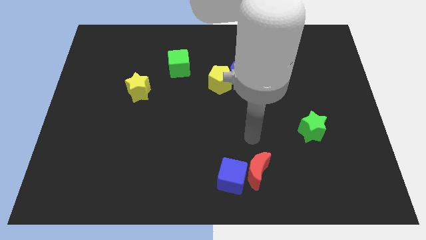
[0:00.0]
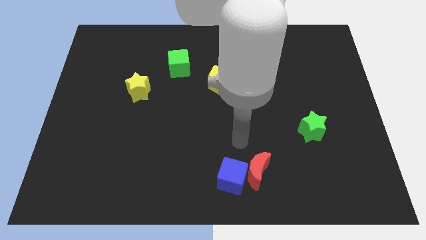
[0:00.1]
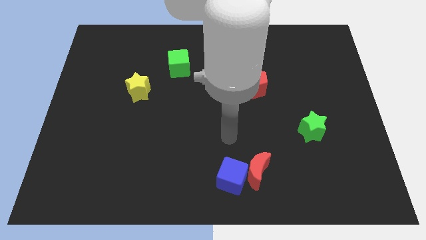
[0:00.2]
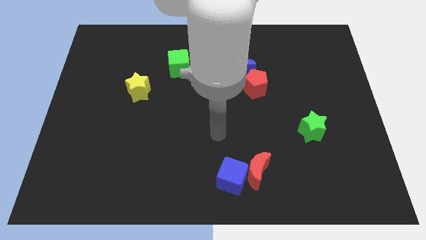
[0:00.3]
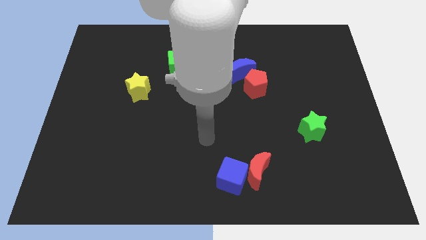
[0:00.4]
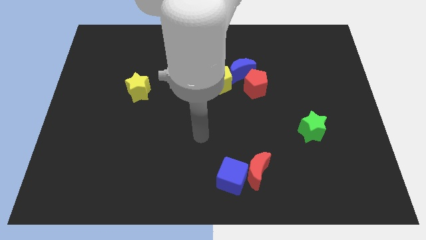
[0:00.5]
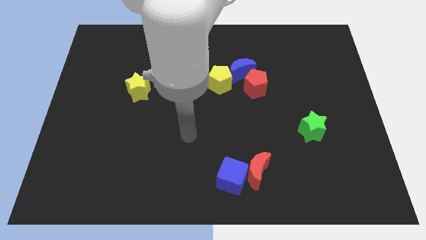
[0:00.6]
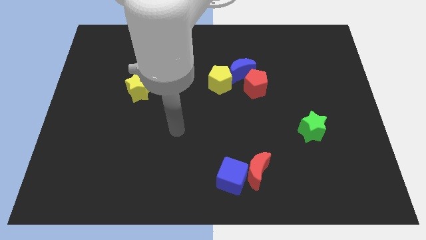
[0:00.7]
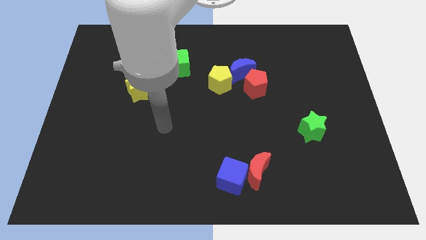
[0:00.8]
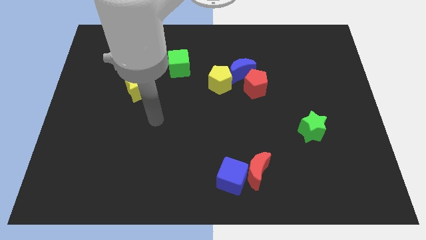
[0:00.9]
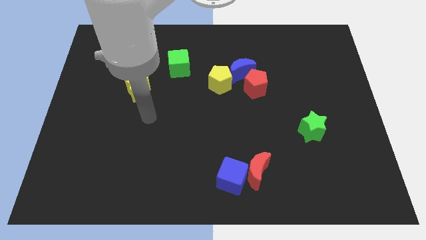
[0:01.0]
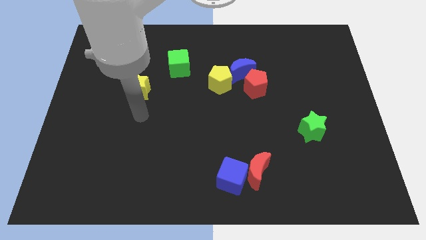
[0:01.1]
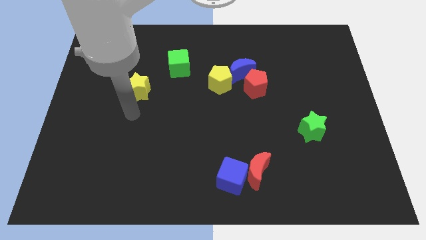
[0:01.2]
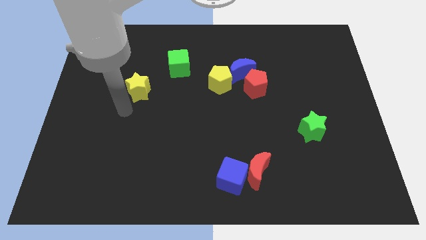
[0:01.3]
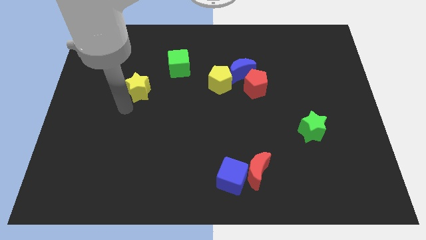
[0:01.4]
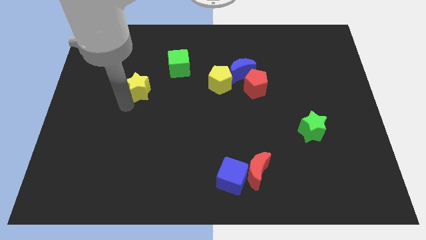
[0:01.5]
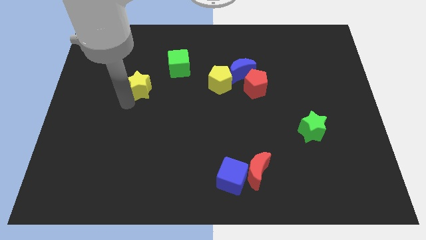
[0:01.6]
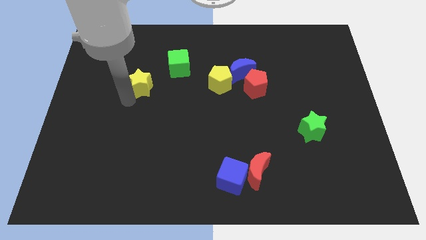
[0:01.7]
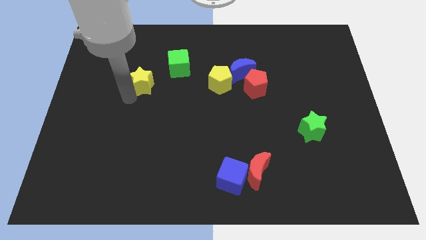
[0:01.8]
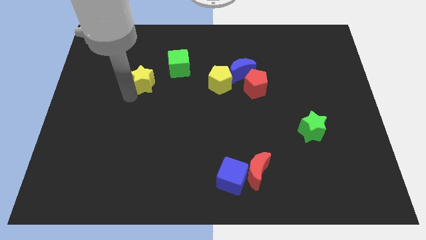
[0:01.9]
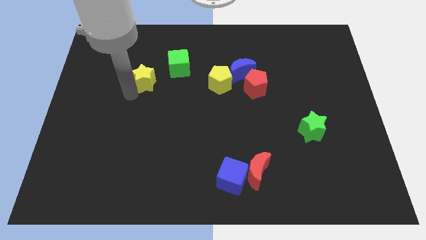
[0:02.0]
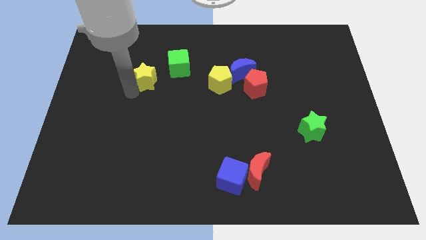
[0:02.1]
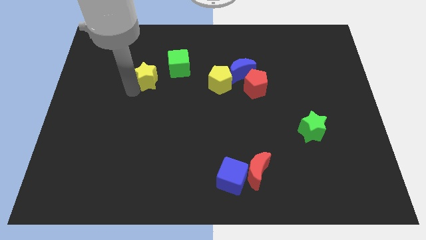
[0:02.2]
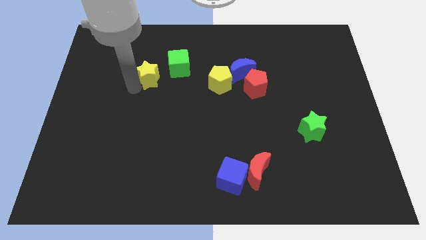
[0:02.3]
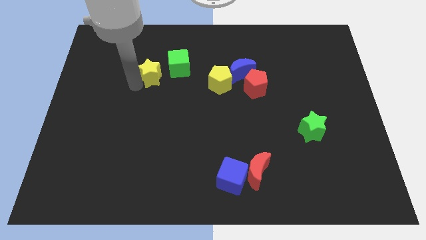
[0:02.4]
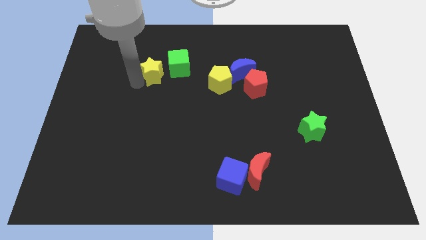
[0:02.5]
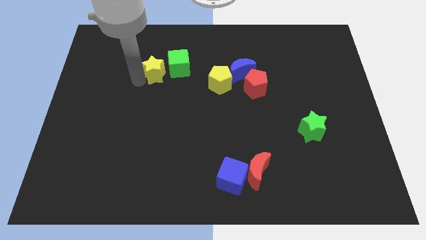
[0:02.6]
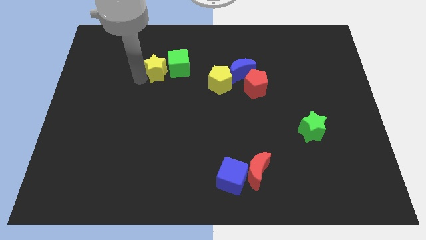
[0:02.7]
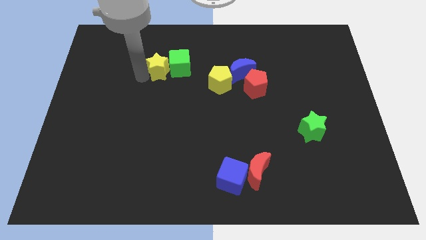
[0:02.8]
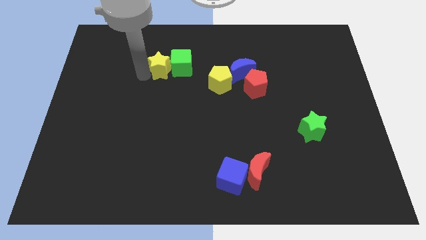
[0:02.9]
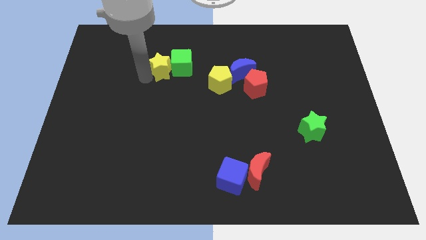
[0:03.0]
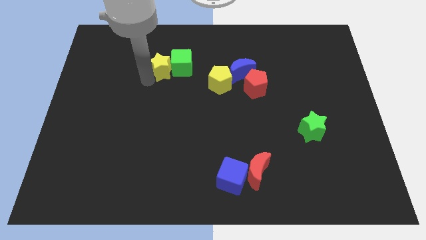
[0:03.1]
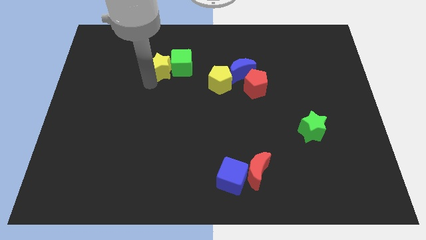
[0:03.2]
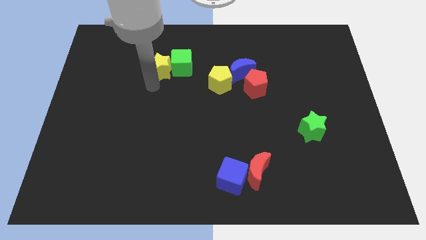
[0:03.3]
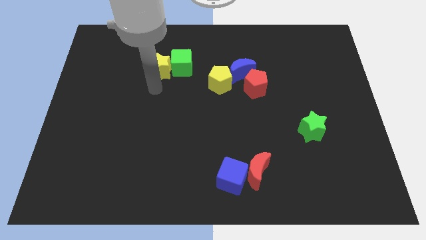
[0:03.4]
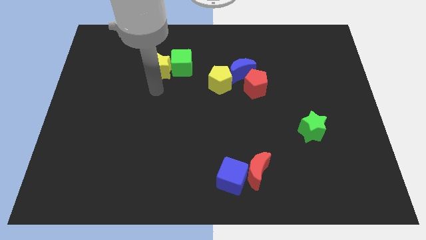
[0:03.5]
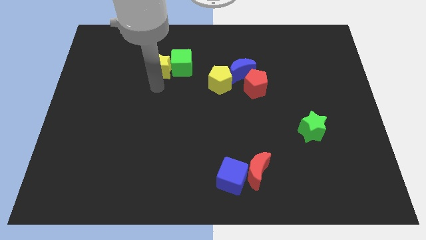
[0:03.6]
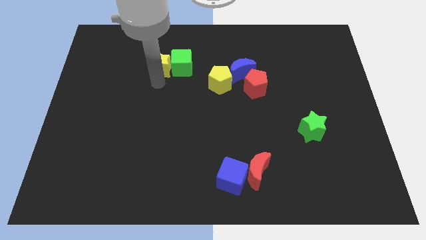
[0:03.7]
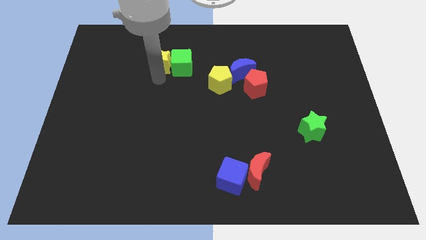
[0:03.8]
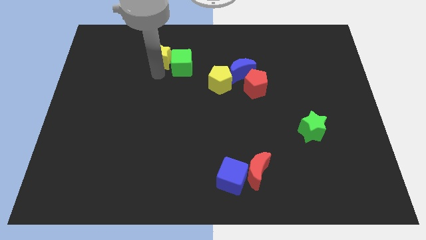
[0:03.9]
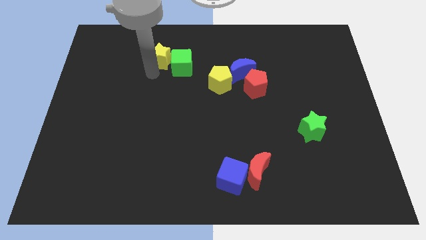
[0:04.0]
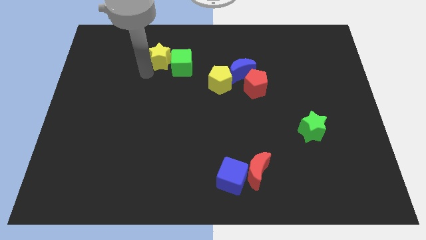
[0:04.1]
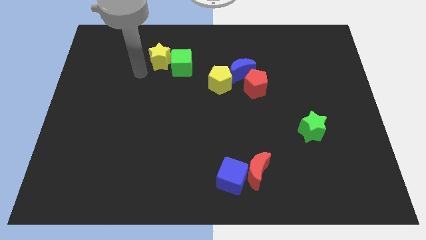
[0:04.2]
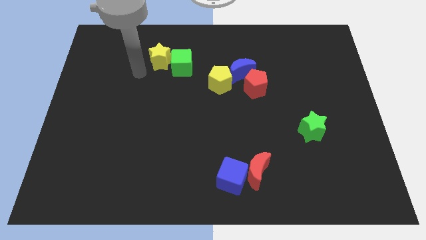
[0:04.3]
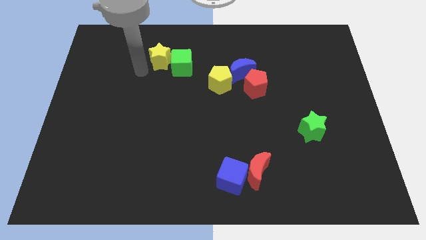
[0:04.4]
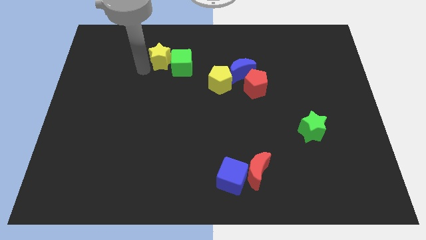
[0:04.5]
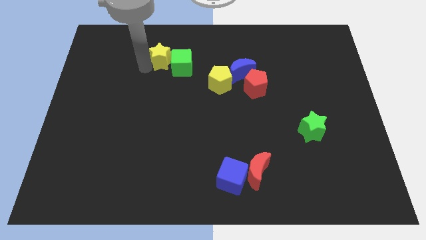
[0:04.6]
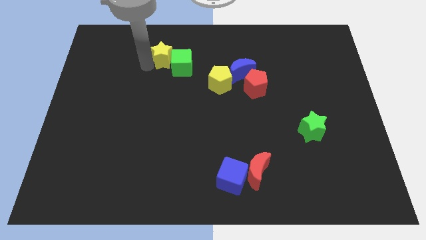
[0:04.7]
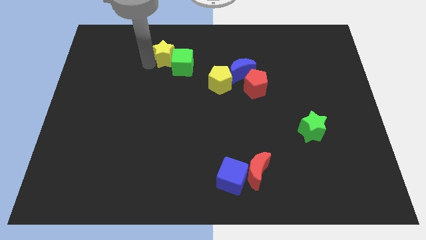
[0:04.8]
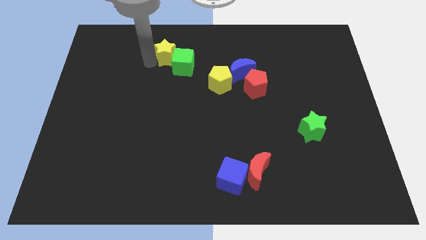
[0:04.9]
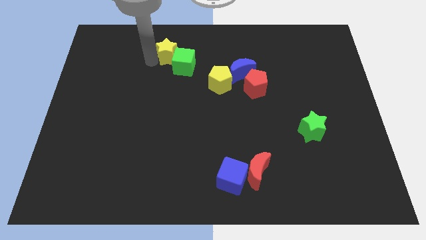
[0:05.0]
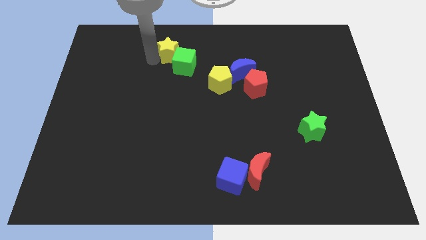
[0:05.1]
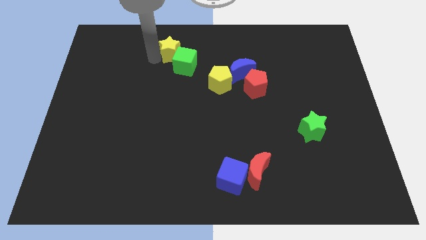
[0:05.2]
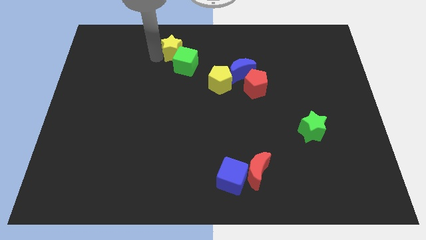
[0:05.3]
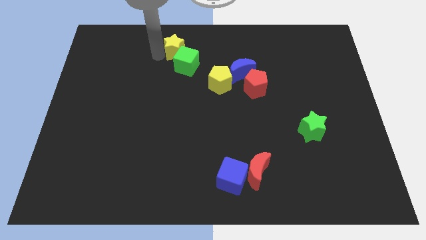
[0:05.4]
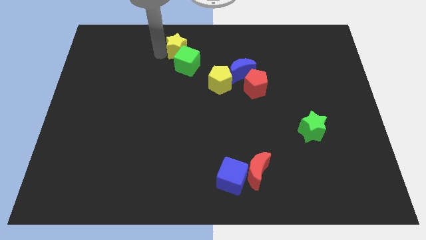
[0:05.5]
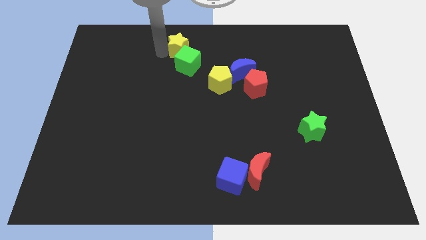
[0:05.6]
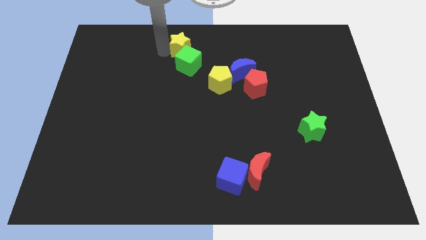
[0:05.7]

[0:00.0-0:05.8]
put the yellow star to the top side

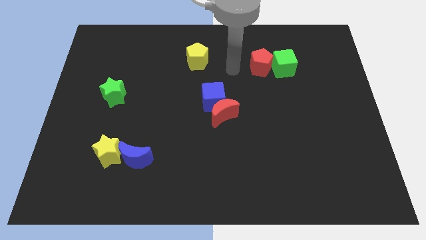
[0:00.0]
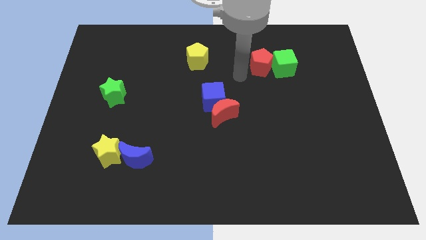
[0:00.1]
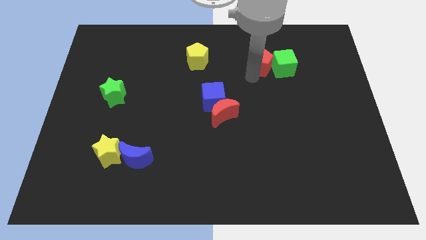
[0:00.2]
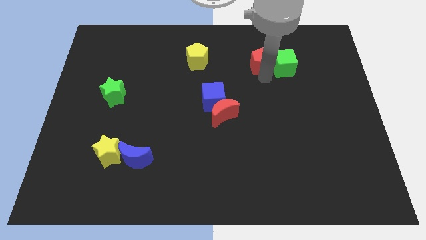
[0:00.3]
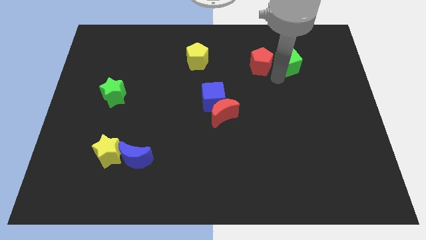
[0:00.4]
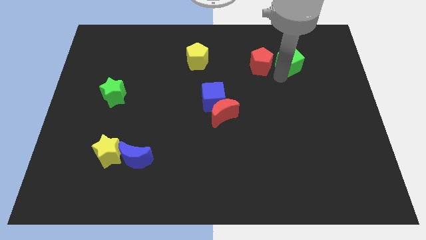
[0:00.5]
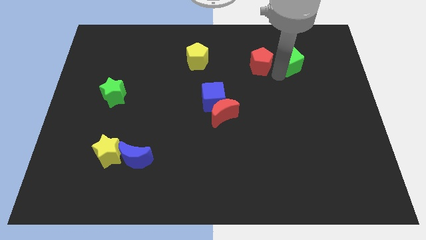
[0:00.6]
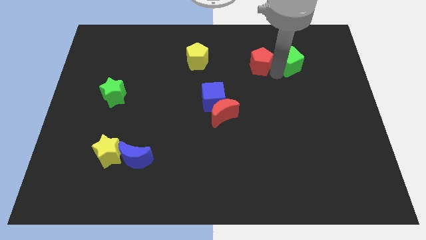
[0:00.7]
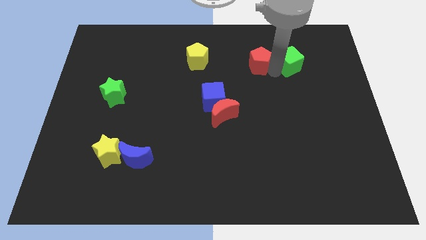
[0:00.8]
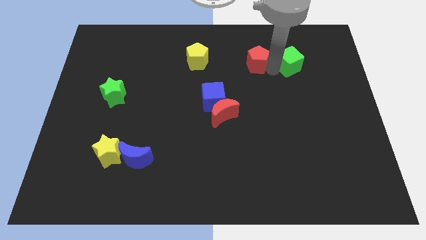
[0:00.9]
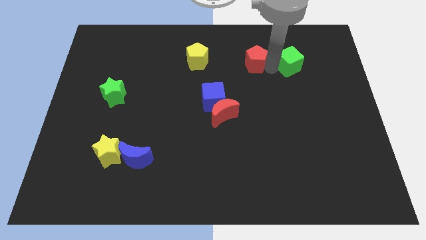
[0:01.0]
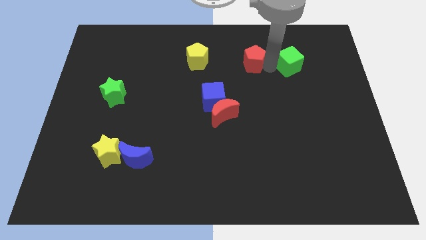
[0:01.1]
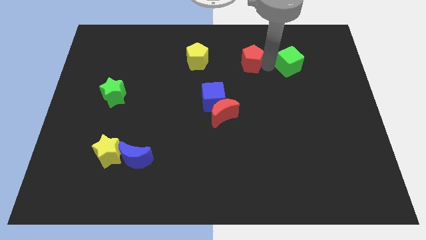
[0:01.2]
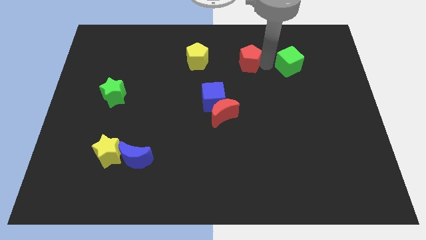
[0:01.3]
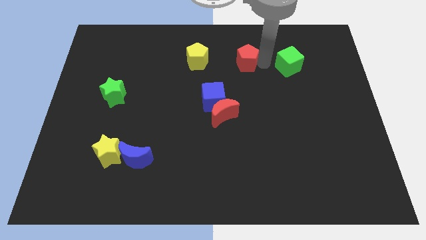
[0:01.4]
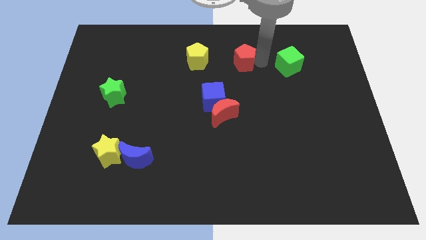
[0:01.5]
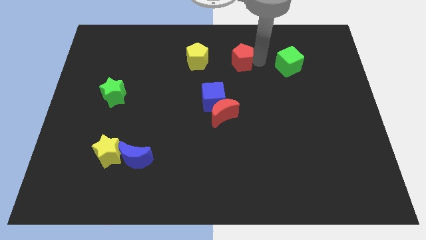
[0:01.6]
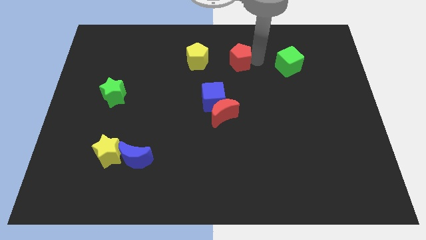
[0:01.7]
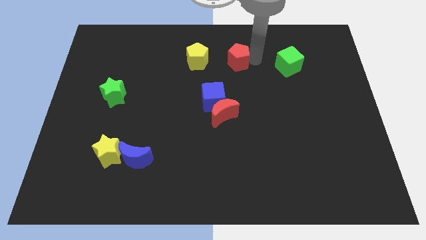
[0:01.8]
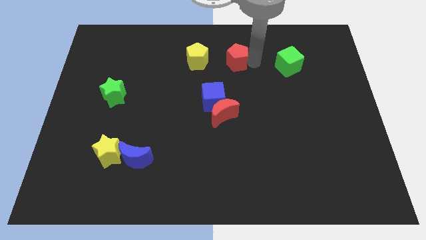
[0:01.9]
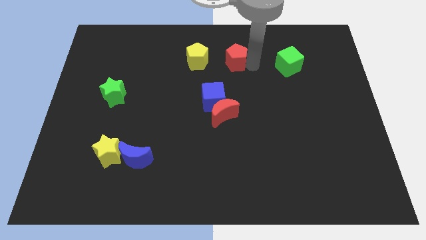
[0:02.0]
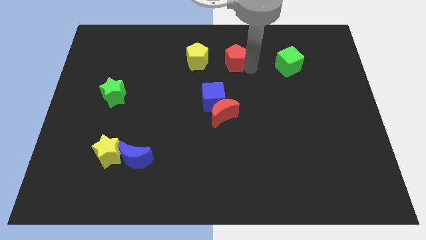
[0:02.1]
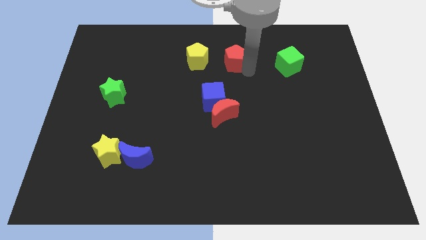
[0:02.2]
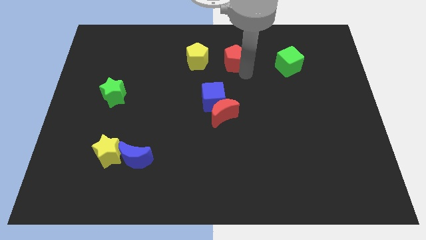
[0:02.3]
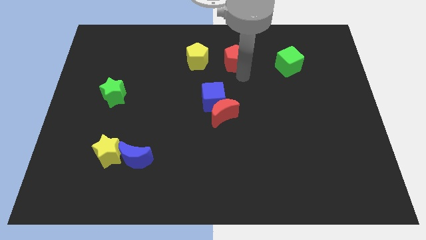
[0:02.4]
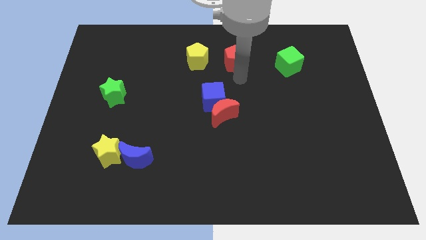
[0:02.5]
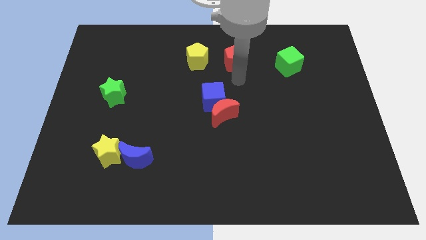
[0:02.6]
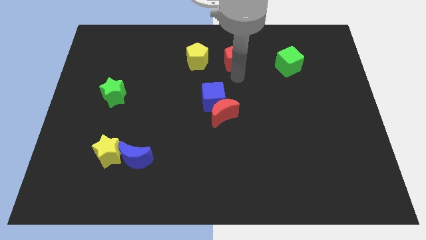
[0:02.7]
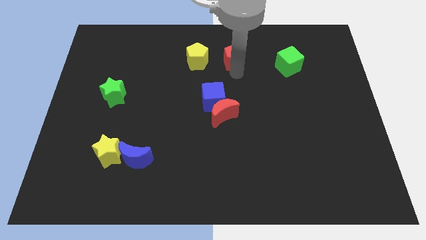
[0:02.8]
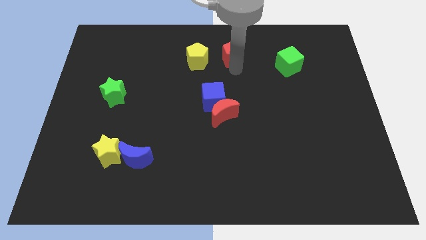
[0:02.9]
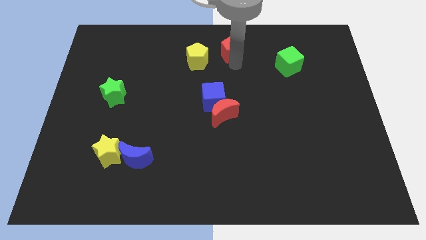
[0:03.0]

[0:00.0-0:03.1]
move the red pentagon to the towards your base
